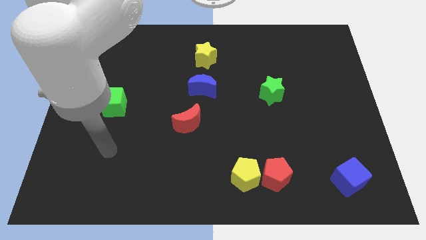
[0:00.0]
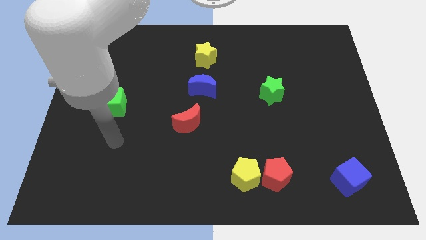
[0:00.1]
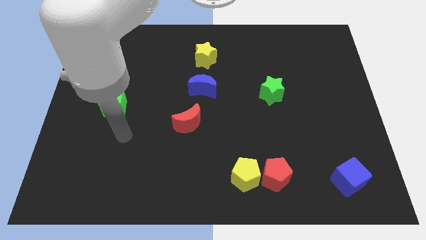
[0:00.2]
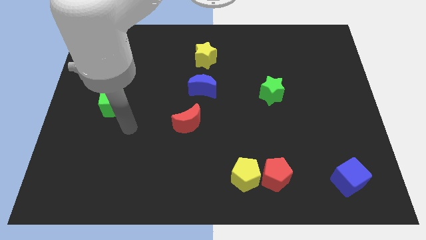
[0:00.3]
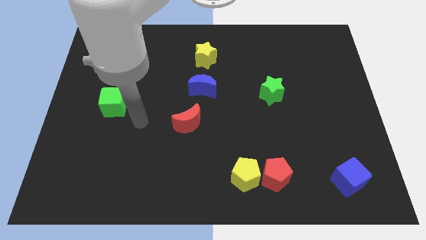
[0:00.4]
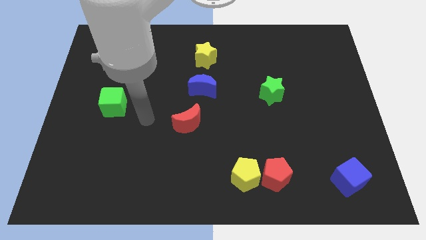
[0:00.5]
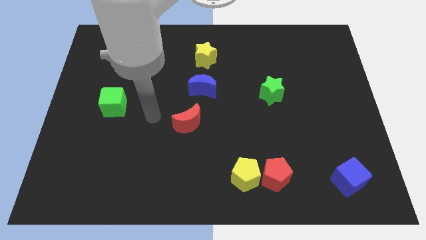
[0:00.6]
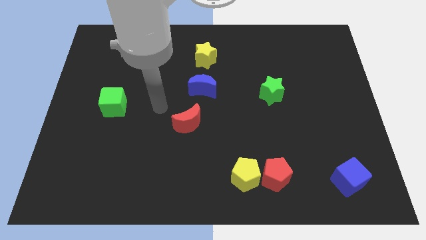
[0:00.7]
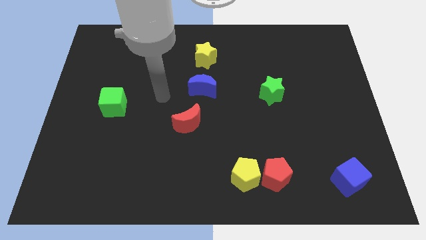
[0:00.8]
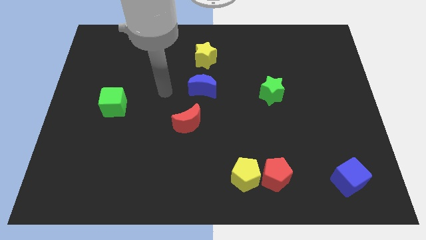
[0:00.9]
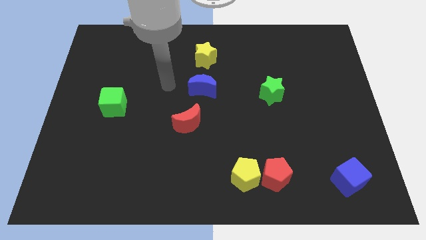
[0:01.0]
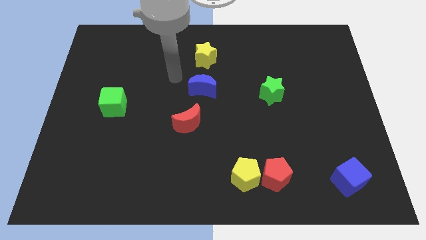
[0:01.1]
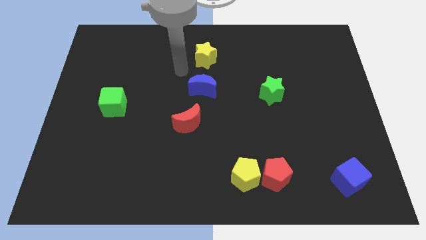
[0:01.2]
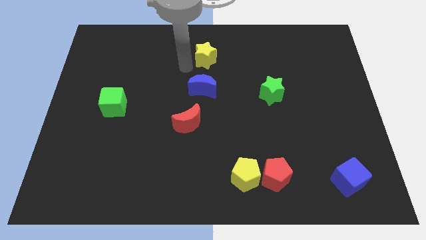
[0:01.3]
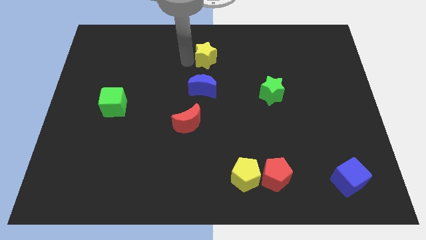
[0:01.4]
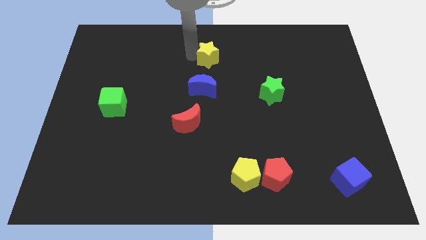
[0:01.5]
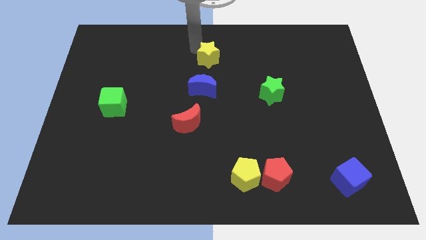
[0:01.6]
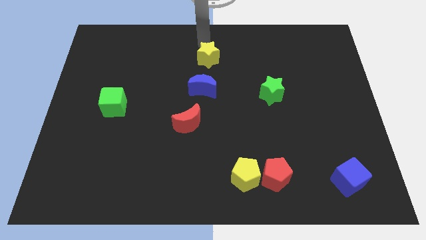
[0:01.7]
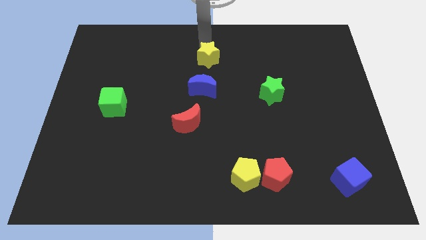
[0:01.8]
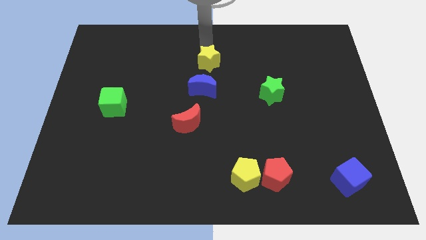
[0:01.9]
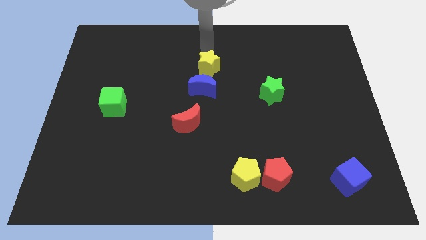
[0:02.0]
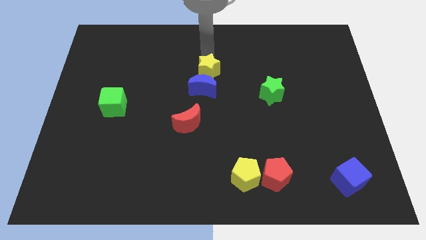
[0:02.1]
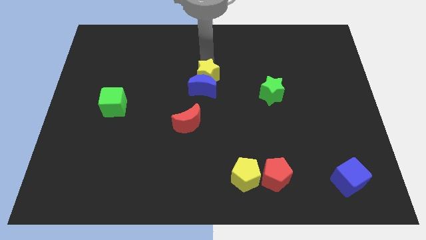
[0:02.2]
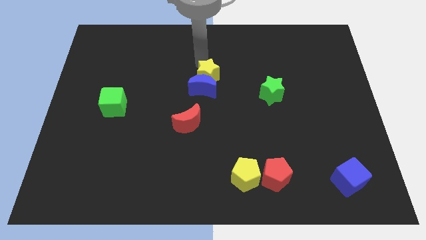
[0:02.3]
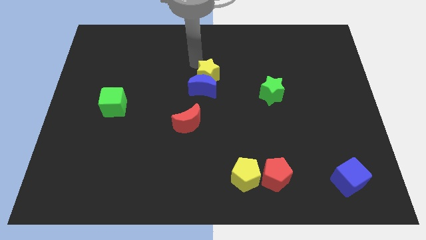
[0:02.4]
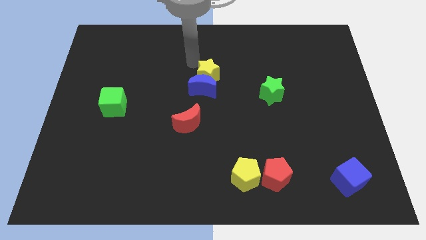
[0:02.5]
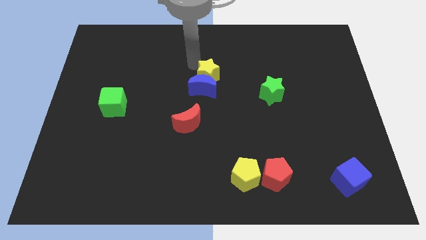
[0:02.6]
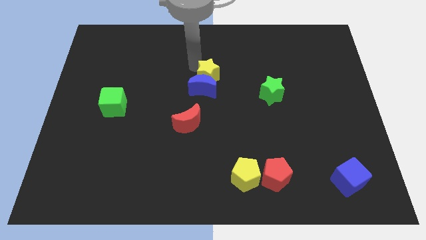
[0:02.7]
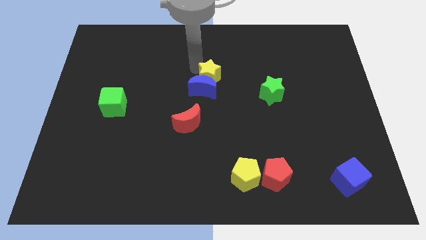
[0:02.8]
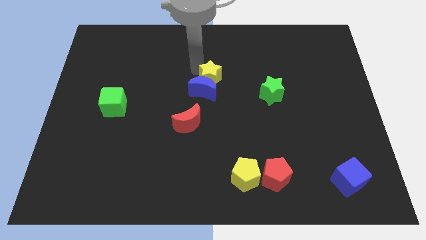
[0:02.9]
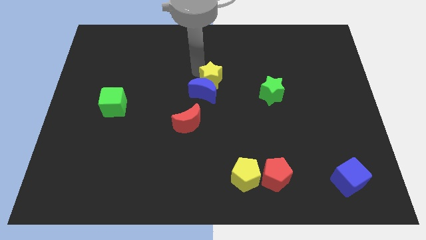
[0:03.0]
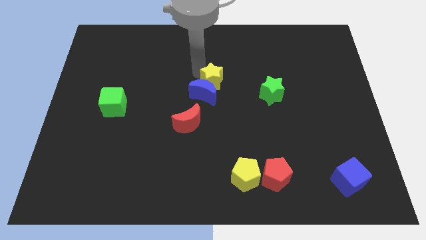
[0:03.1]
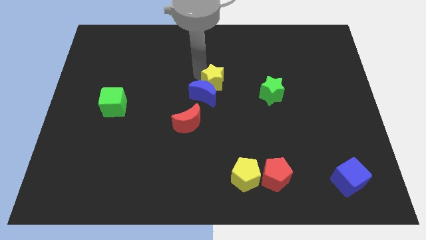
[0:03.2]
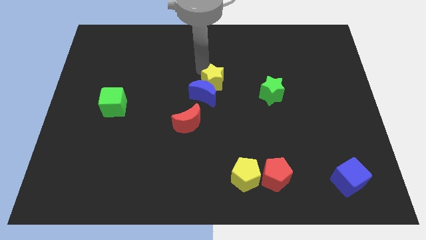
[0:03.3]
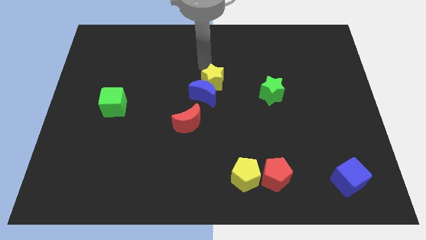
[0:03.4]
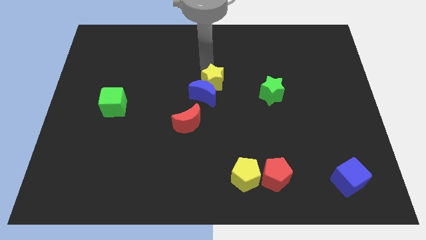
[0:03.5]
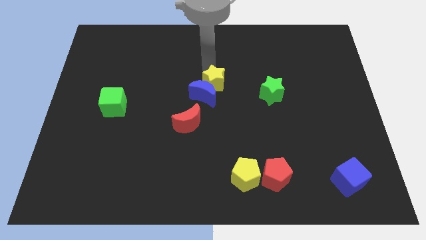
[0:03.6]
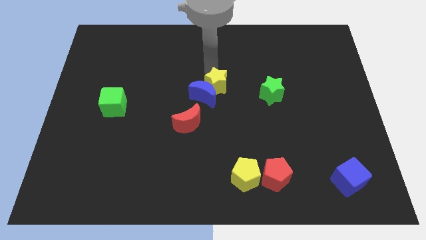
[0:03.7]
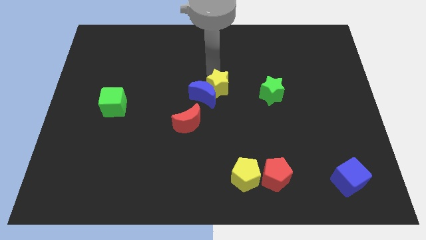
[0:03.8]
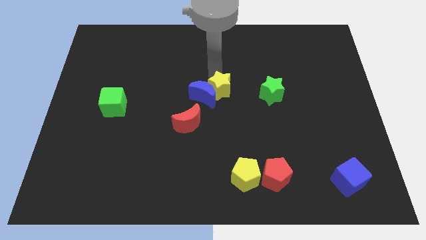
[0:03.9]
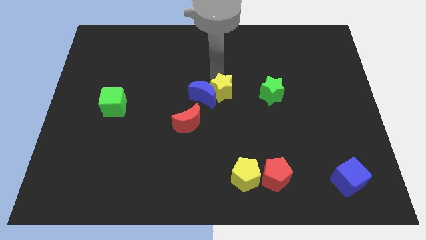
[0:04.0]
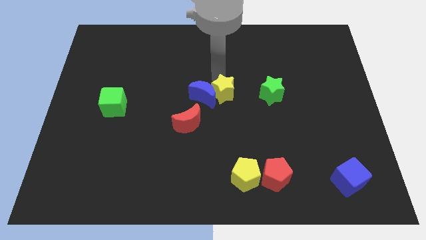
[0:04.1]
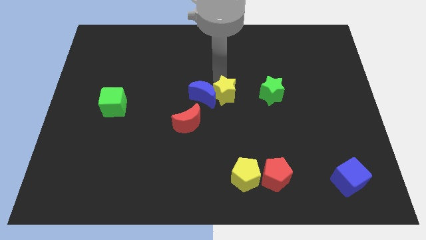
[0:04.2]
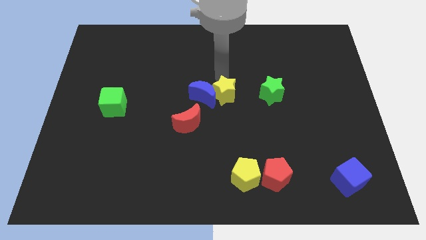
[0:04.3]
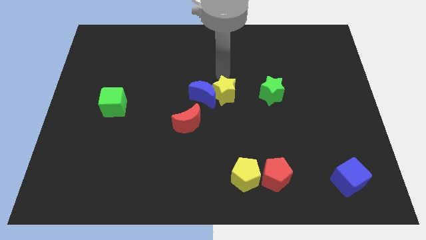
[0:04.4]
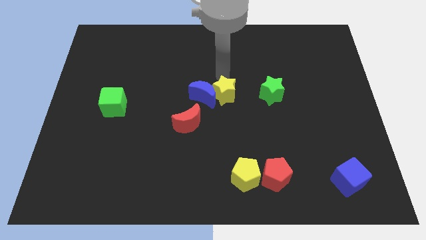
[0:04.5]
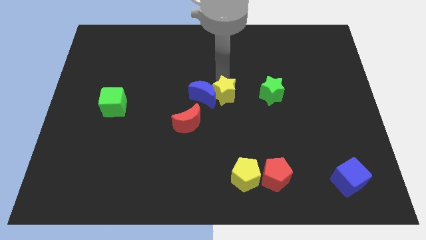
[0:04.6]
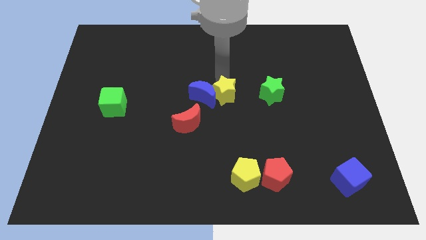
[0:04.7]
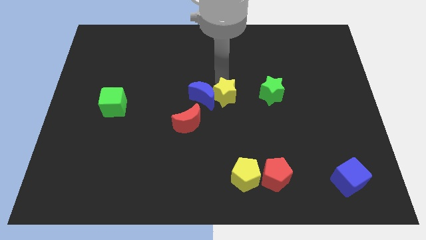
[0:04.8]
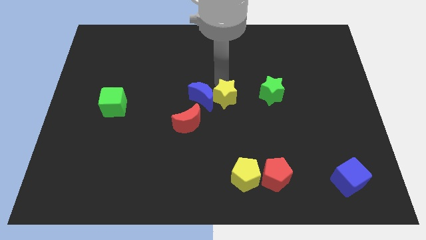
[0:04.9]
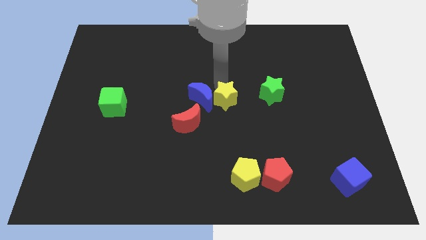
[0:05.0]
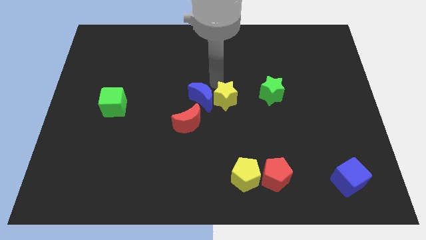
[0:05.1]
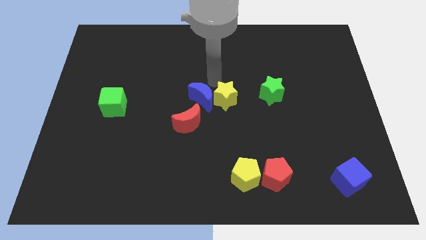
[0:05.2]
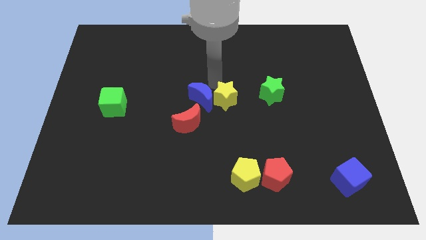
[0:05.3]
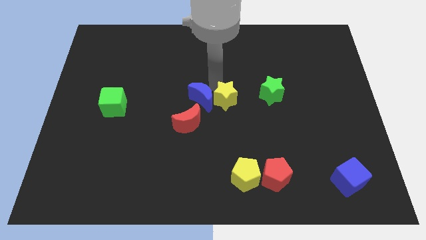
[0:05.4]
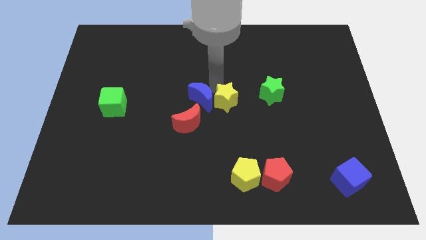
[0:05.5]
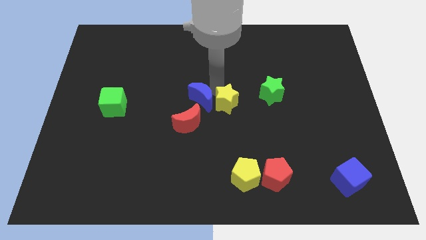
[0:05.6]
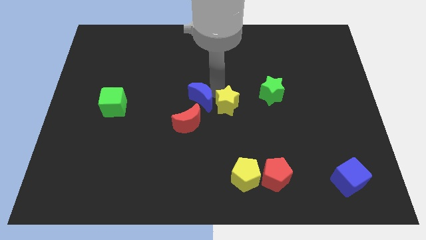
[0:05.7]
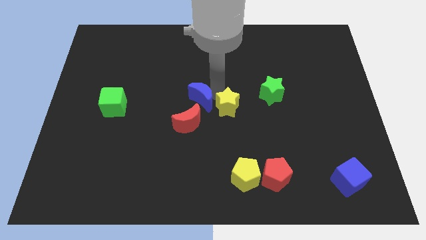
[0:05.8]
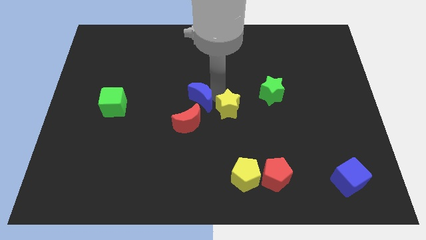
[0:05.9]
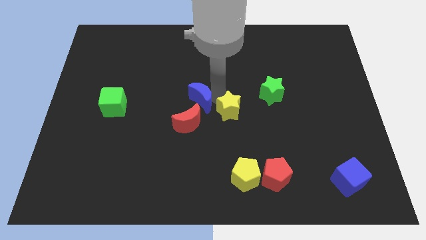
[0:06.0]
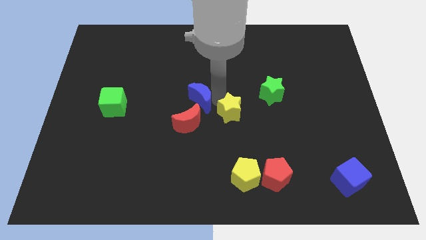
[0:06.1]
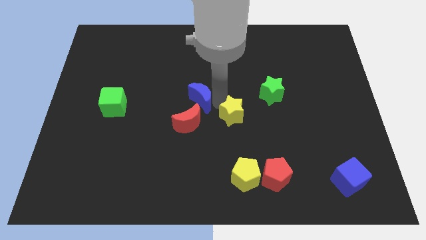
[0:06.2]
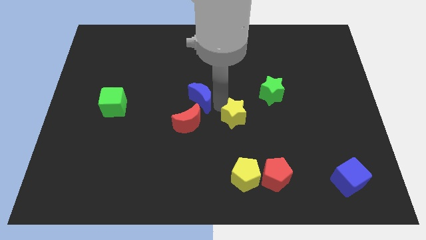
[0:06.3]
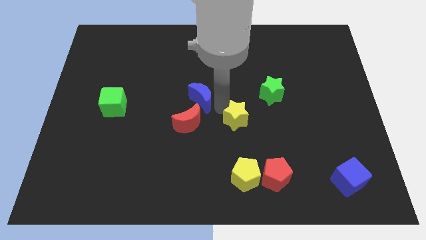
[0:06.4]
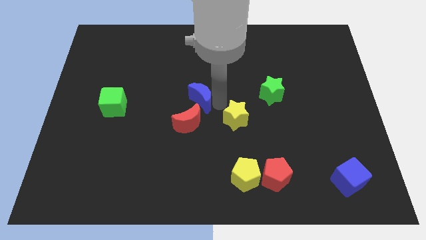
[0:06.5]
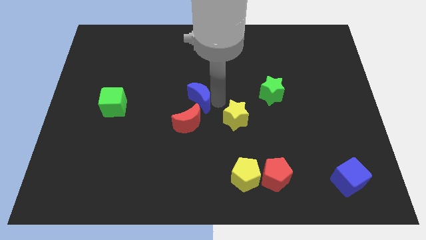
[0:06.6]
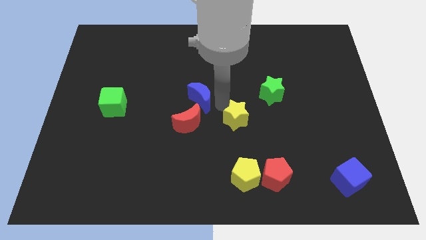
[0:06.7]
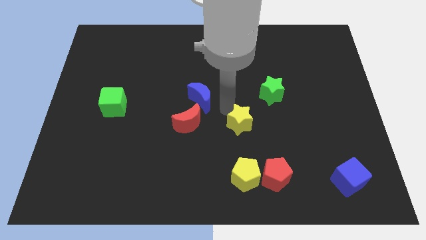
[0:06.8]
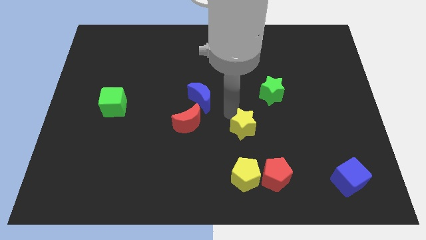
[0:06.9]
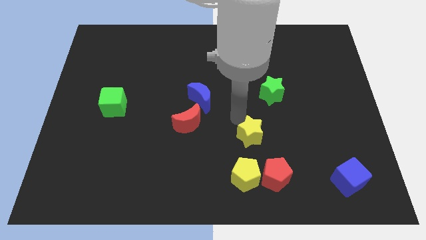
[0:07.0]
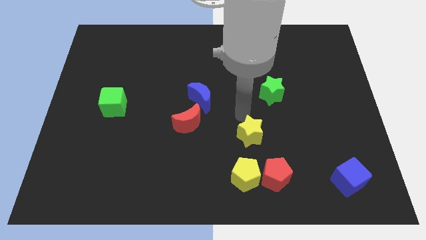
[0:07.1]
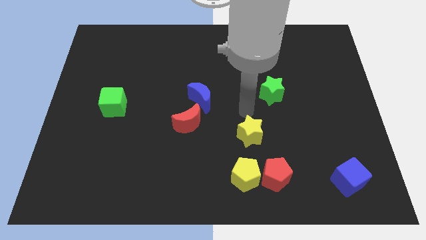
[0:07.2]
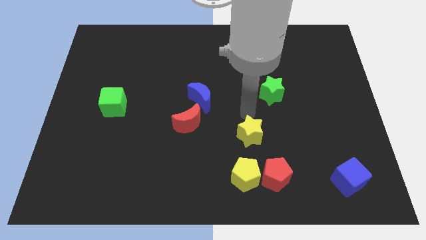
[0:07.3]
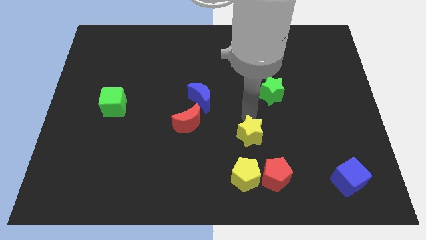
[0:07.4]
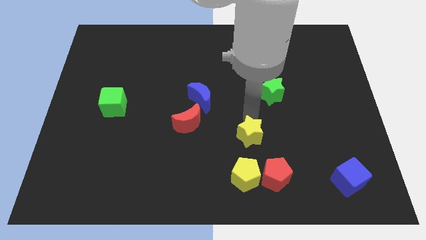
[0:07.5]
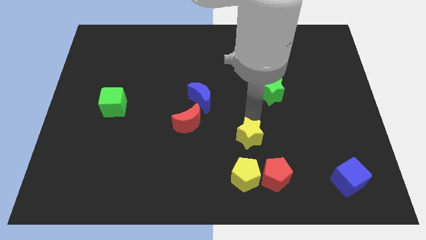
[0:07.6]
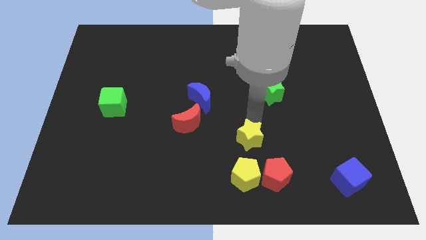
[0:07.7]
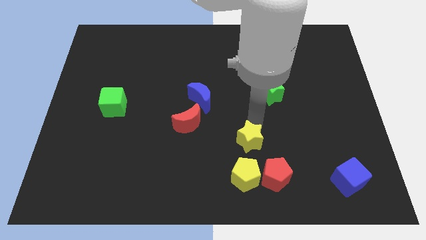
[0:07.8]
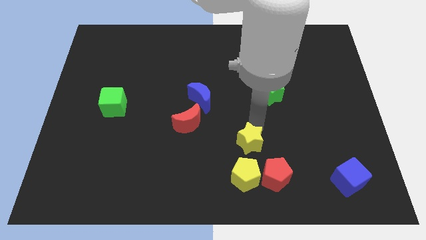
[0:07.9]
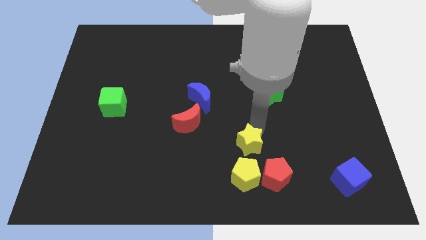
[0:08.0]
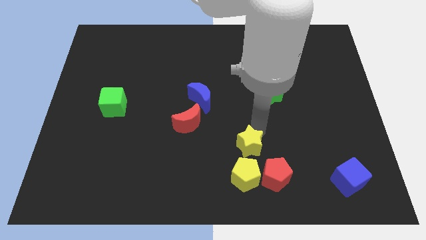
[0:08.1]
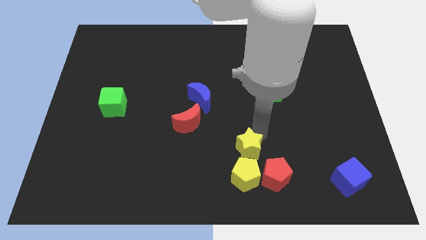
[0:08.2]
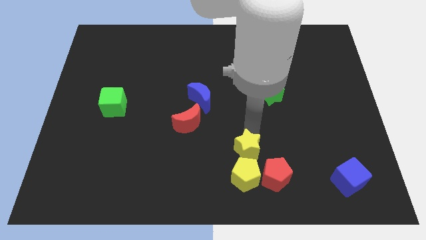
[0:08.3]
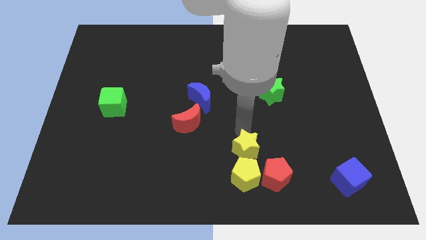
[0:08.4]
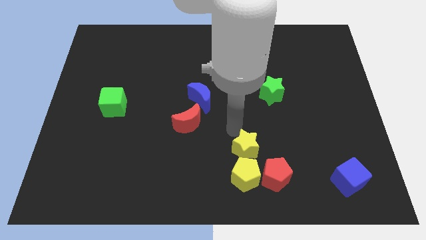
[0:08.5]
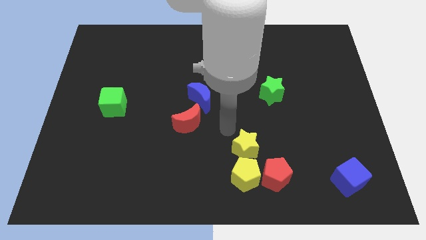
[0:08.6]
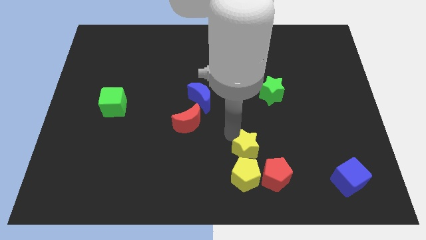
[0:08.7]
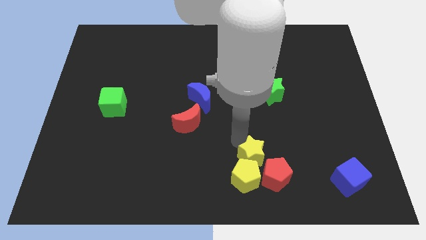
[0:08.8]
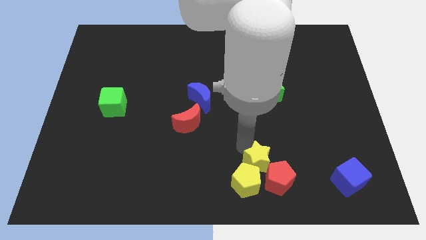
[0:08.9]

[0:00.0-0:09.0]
slide the yellow star towards the red pentagon
